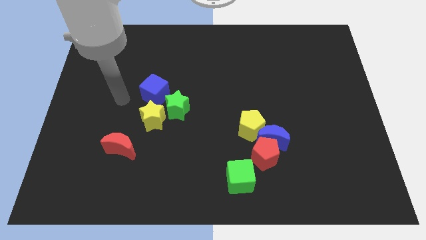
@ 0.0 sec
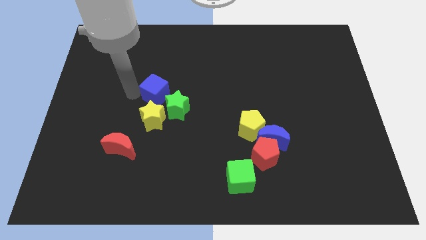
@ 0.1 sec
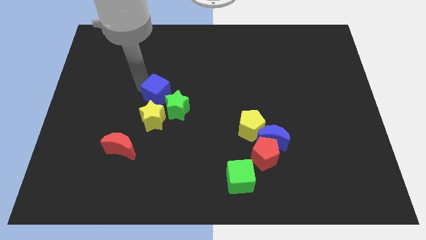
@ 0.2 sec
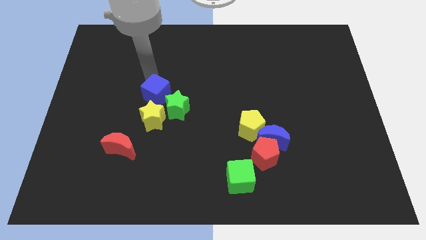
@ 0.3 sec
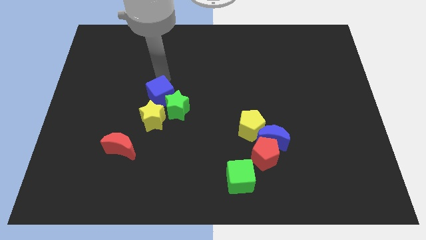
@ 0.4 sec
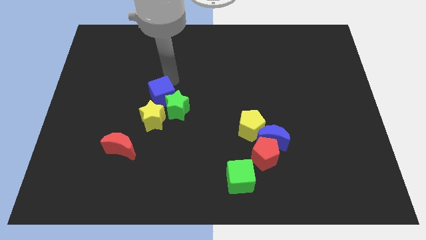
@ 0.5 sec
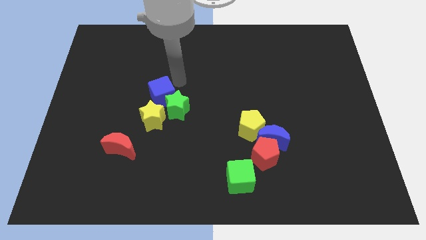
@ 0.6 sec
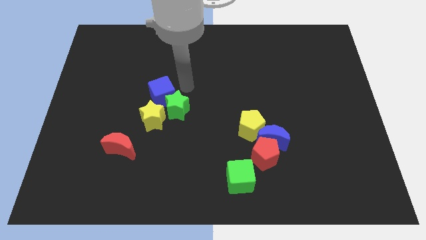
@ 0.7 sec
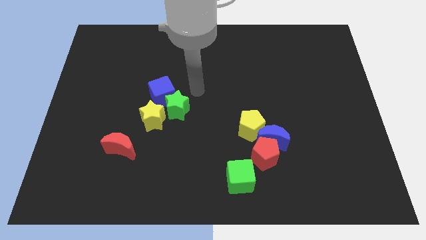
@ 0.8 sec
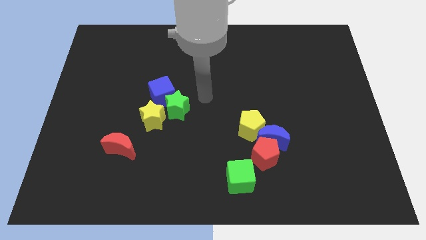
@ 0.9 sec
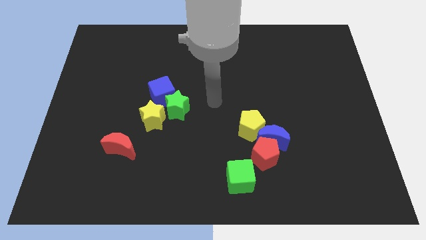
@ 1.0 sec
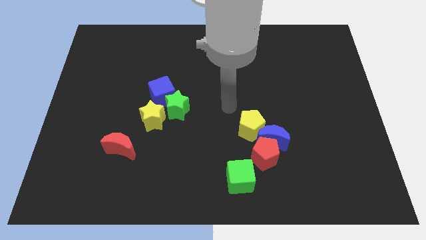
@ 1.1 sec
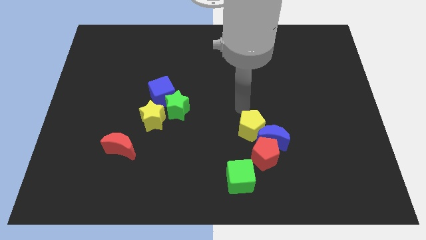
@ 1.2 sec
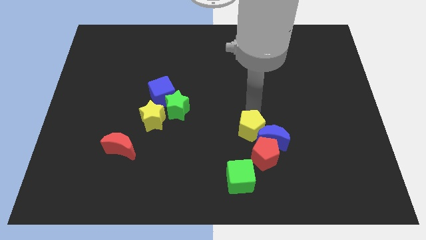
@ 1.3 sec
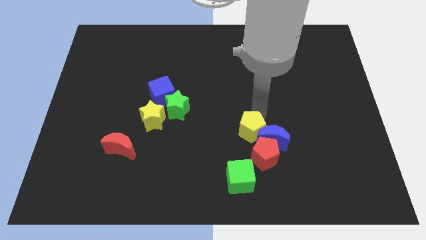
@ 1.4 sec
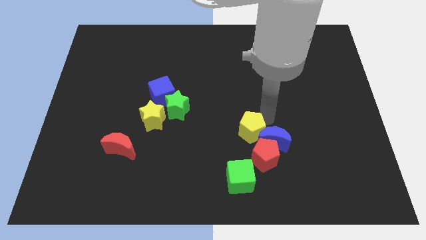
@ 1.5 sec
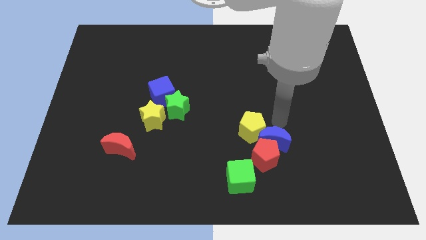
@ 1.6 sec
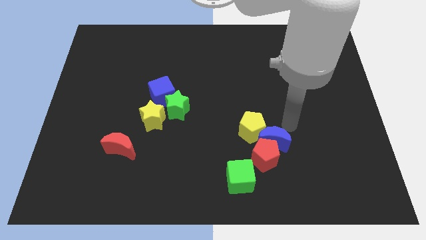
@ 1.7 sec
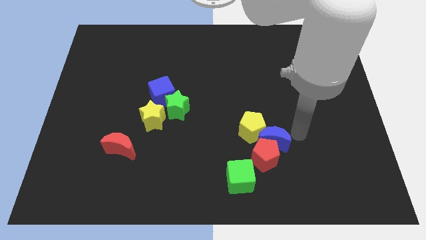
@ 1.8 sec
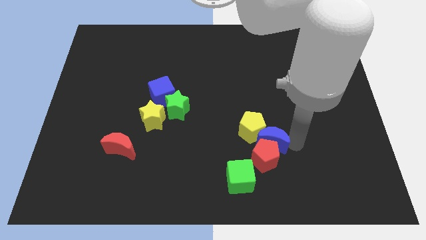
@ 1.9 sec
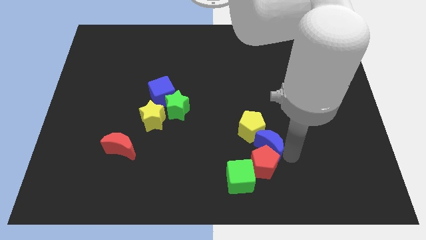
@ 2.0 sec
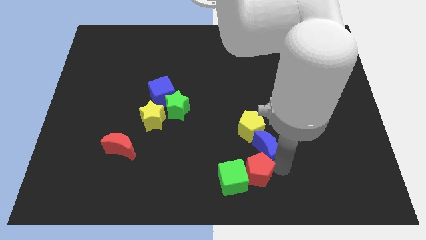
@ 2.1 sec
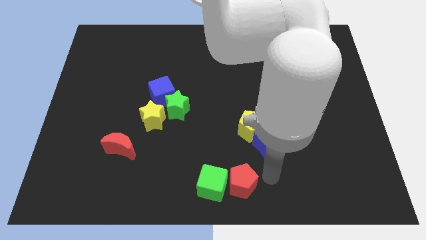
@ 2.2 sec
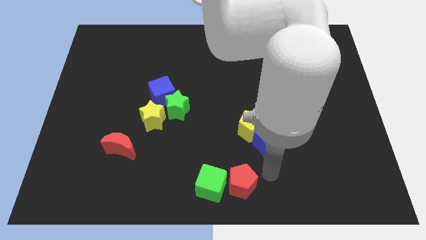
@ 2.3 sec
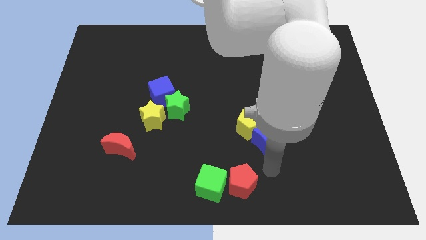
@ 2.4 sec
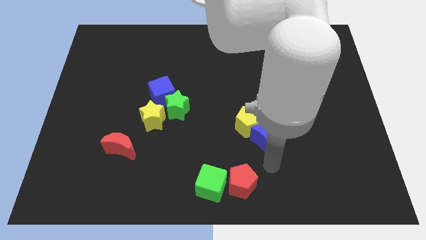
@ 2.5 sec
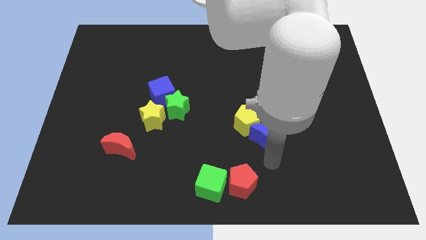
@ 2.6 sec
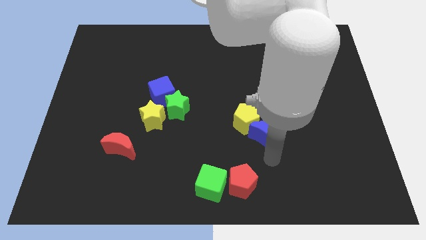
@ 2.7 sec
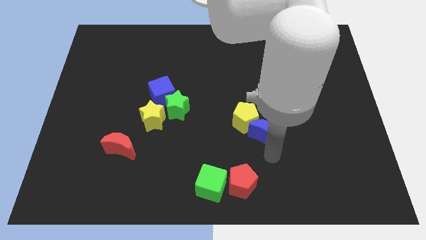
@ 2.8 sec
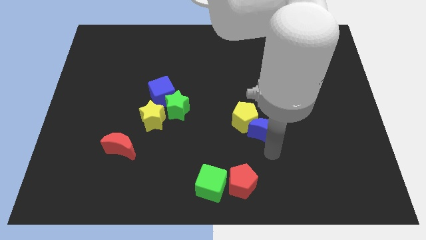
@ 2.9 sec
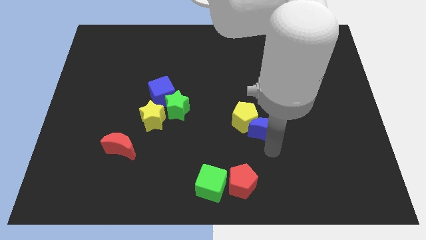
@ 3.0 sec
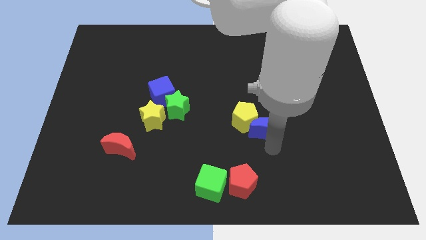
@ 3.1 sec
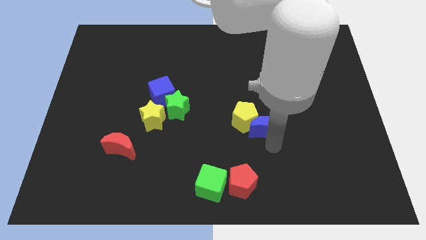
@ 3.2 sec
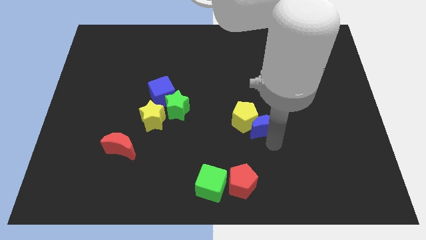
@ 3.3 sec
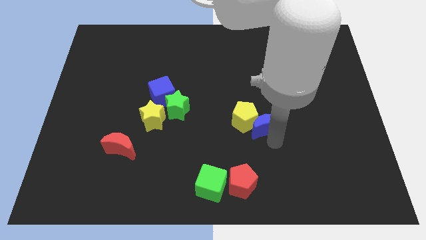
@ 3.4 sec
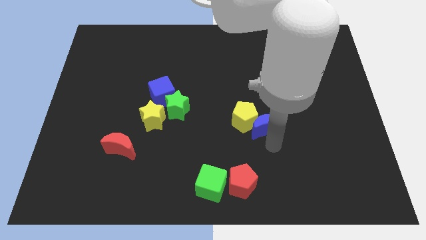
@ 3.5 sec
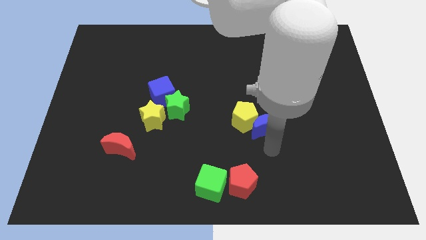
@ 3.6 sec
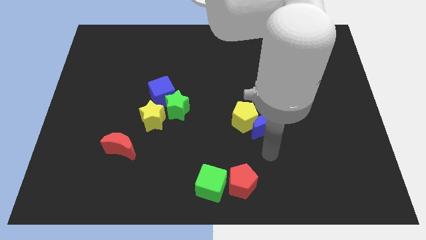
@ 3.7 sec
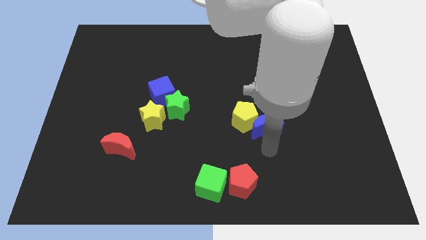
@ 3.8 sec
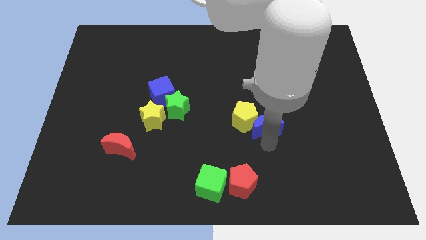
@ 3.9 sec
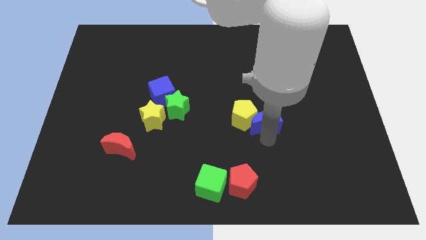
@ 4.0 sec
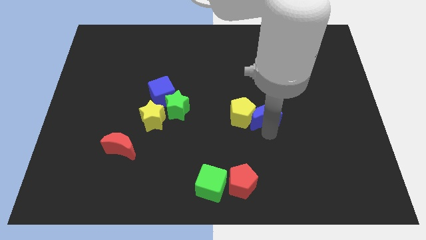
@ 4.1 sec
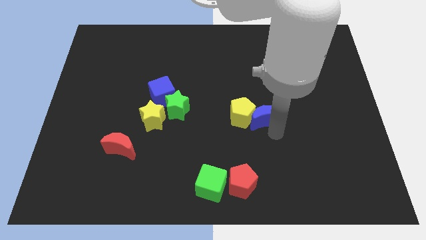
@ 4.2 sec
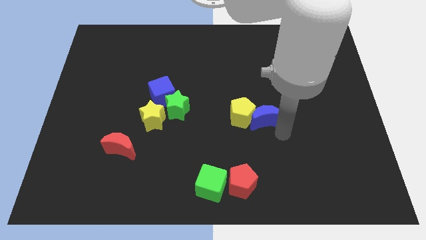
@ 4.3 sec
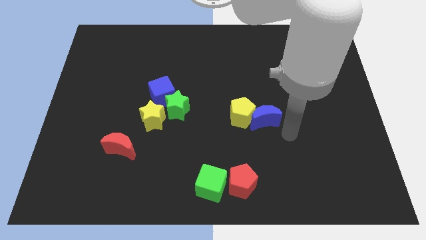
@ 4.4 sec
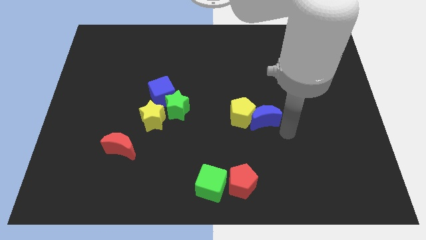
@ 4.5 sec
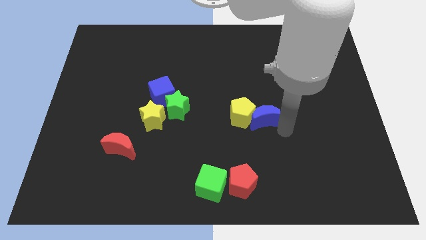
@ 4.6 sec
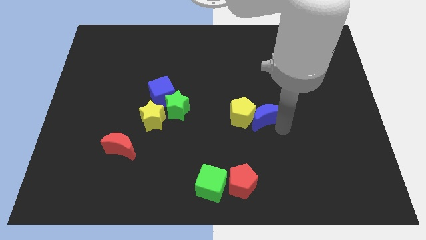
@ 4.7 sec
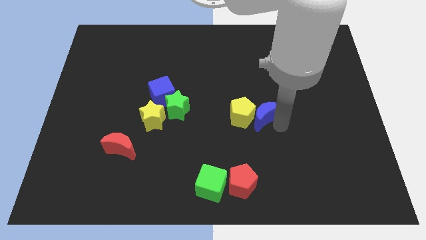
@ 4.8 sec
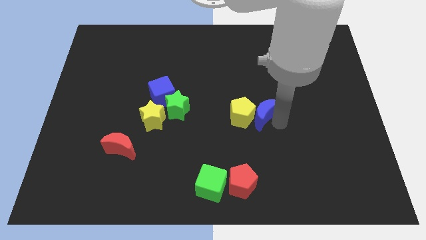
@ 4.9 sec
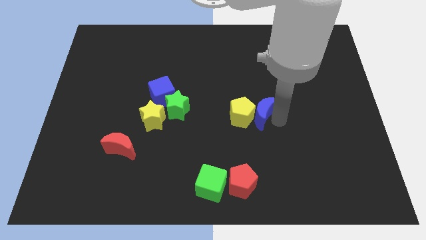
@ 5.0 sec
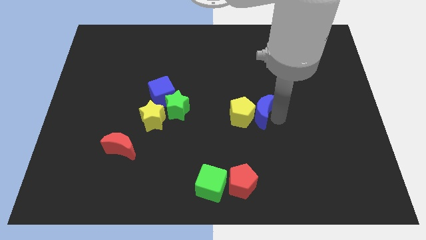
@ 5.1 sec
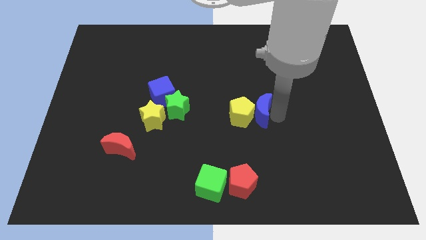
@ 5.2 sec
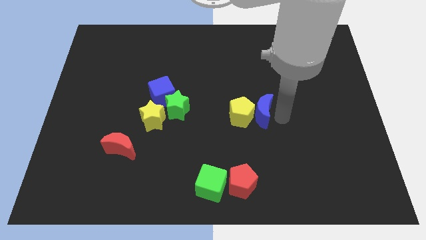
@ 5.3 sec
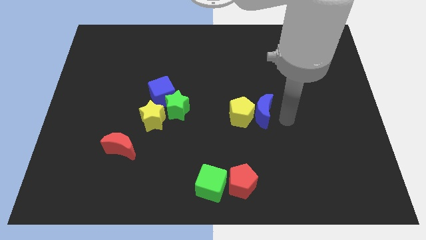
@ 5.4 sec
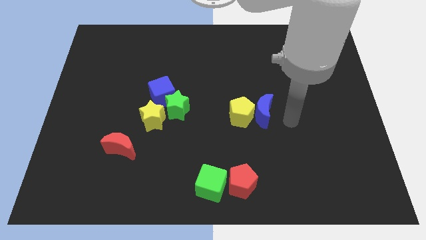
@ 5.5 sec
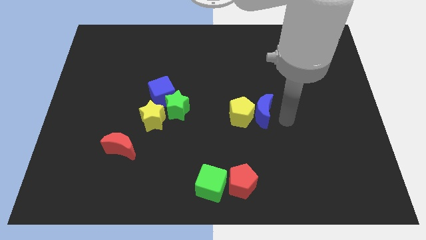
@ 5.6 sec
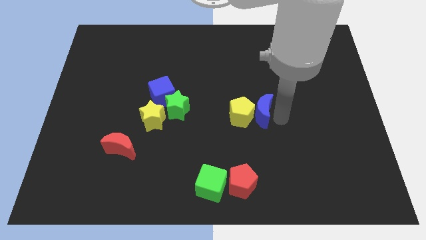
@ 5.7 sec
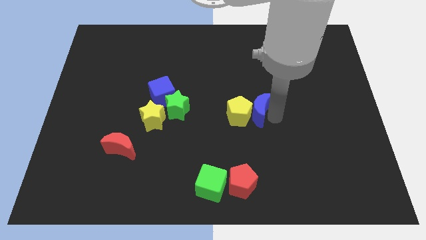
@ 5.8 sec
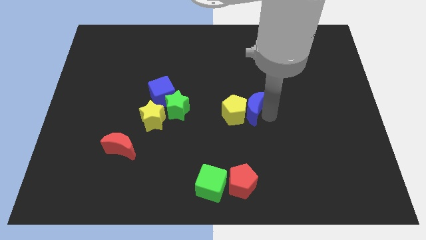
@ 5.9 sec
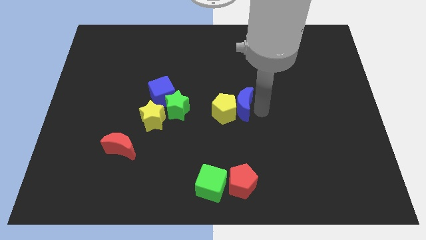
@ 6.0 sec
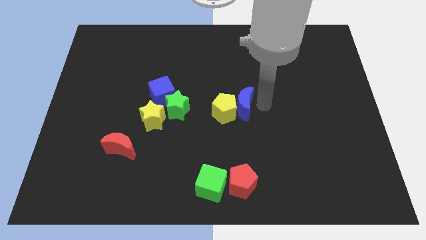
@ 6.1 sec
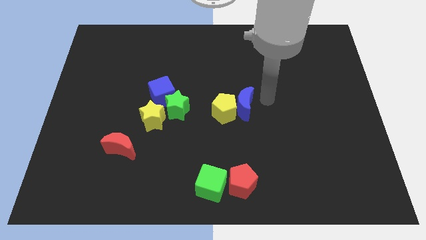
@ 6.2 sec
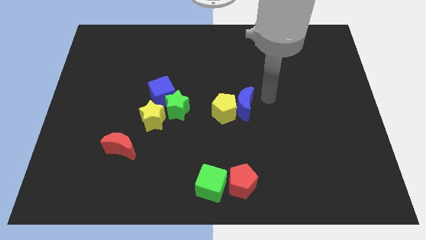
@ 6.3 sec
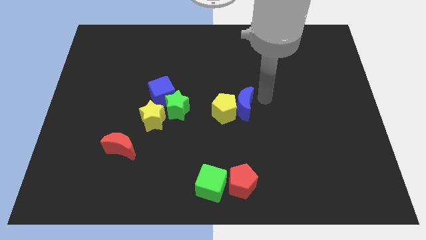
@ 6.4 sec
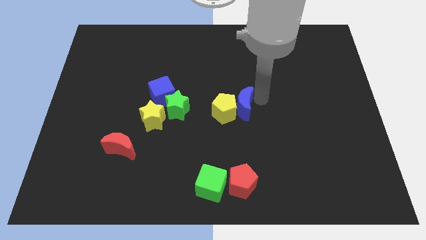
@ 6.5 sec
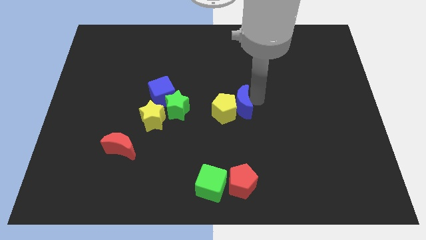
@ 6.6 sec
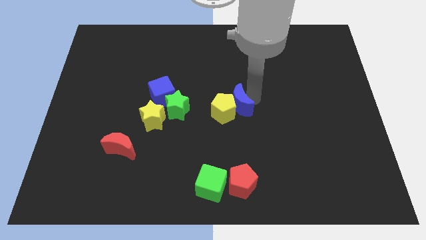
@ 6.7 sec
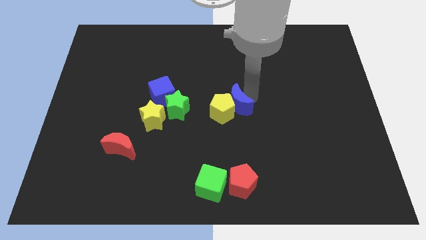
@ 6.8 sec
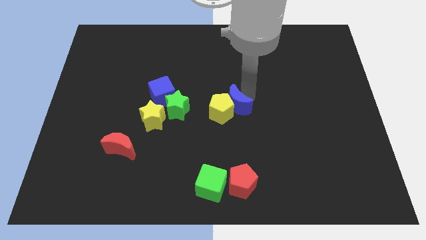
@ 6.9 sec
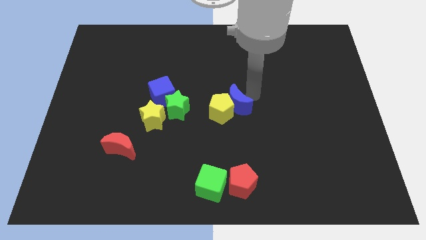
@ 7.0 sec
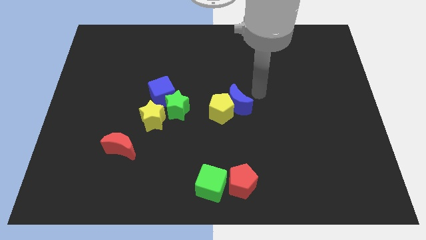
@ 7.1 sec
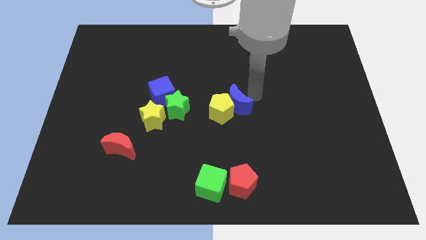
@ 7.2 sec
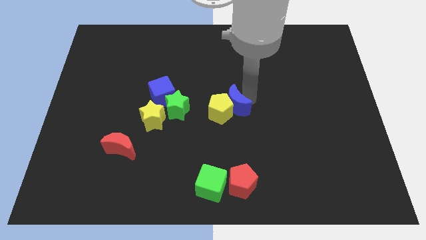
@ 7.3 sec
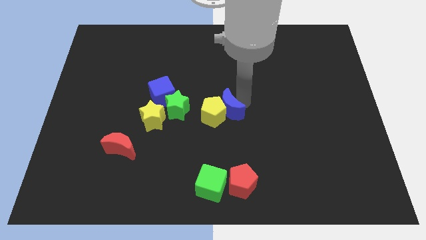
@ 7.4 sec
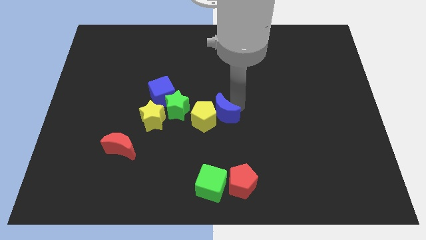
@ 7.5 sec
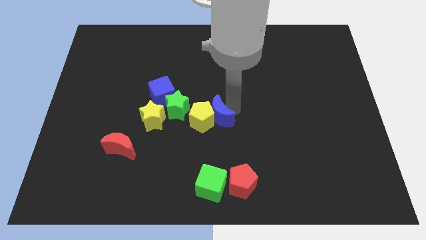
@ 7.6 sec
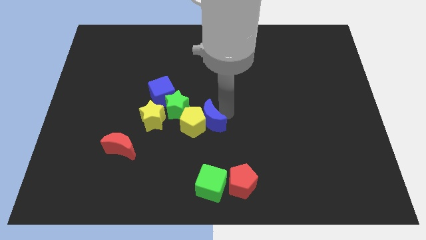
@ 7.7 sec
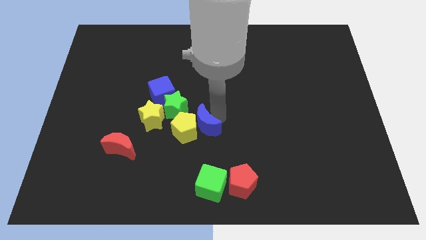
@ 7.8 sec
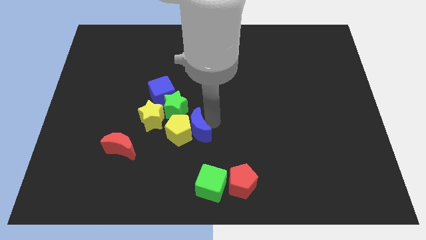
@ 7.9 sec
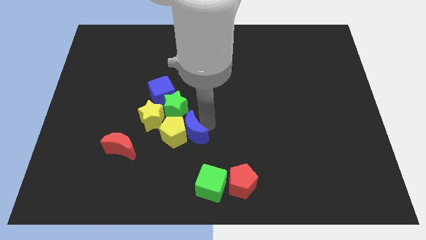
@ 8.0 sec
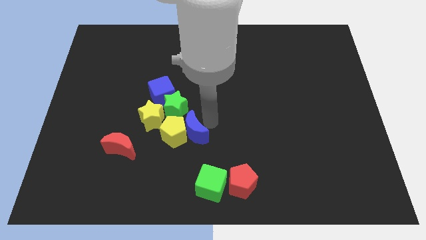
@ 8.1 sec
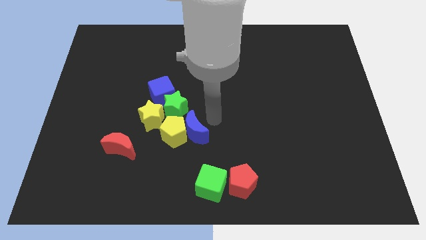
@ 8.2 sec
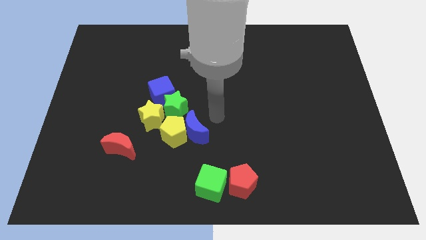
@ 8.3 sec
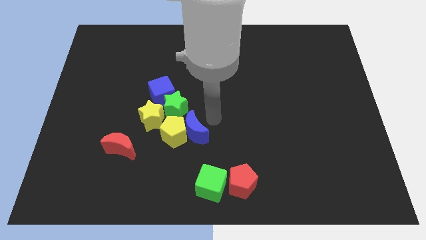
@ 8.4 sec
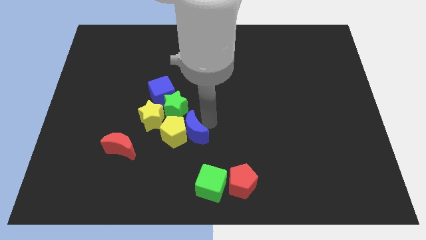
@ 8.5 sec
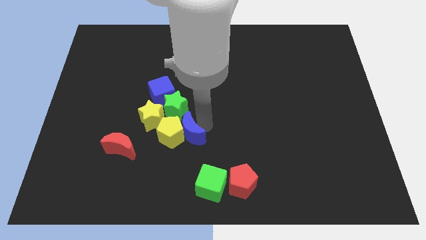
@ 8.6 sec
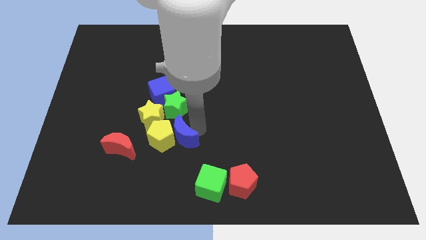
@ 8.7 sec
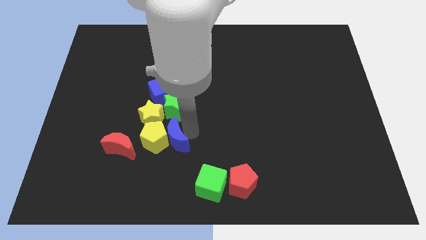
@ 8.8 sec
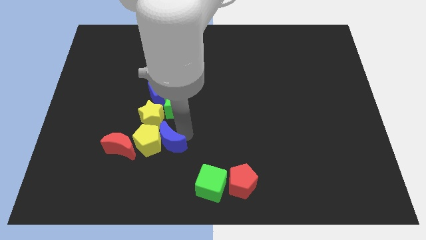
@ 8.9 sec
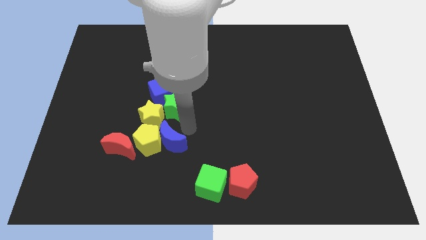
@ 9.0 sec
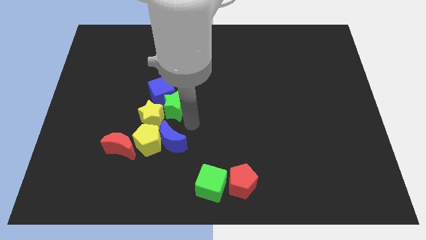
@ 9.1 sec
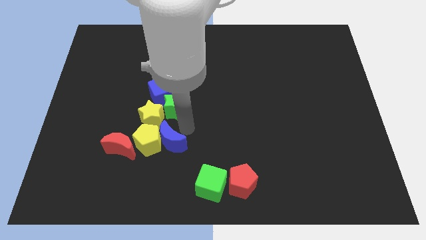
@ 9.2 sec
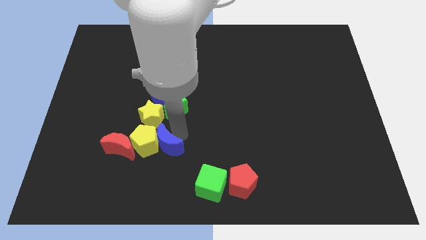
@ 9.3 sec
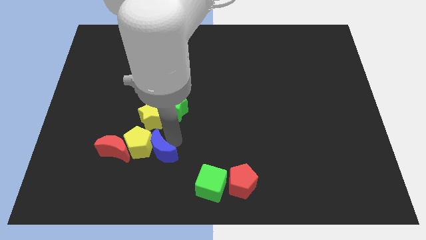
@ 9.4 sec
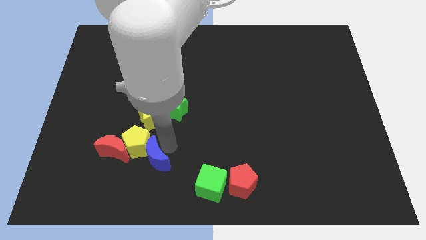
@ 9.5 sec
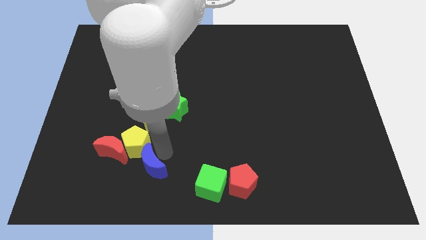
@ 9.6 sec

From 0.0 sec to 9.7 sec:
move the blue moon to the bottom right of the red moon
